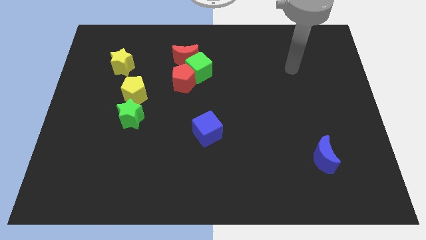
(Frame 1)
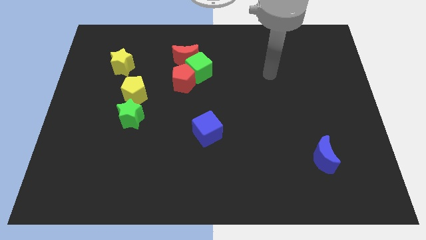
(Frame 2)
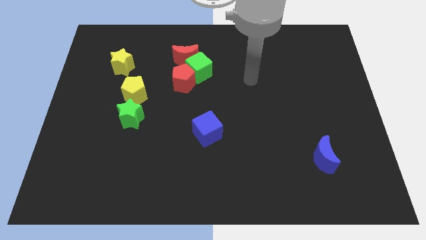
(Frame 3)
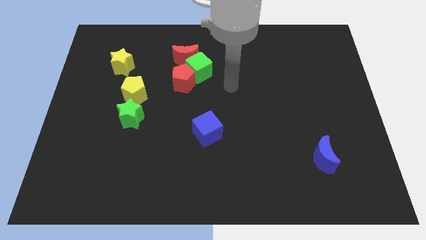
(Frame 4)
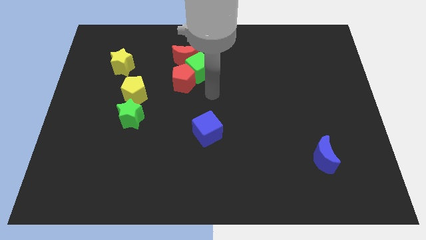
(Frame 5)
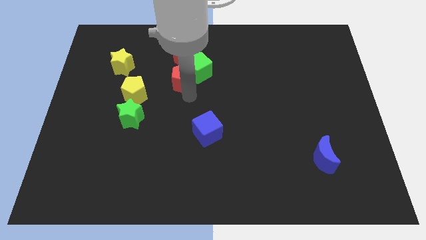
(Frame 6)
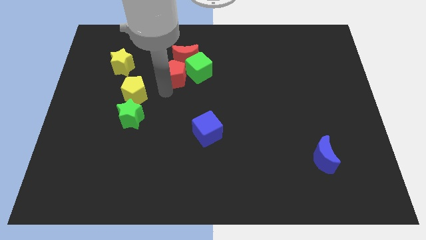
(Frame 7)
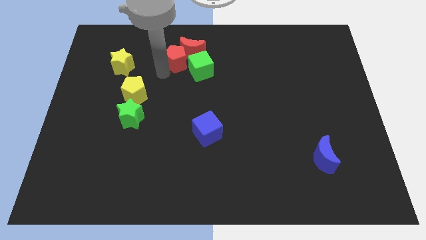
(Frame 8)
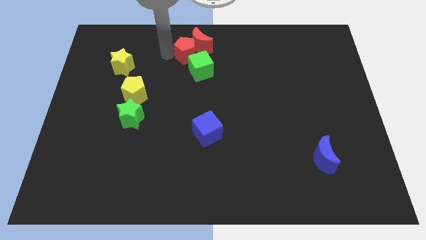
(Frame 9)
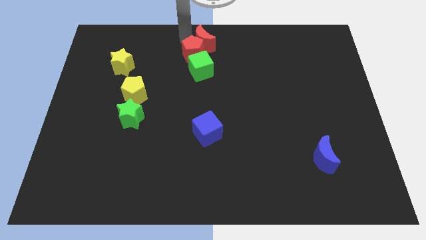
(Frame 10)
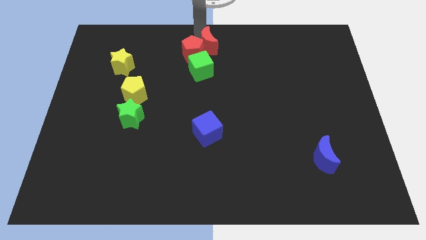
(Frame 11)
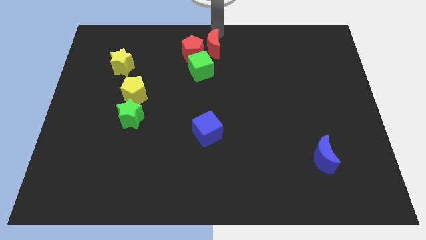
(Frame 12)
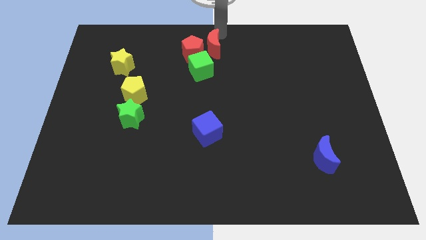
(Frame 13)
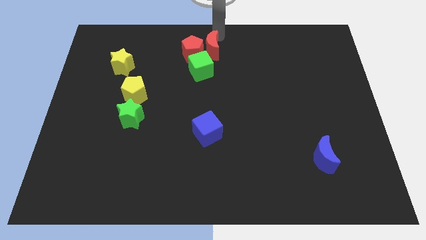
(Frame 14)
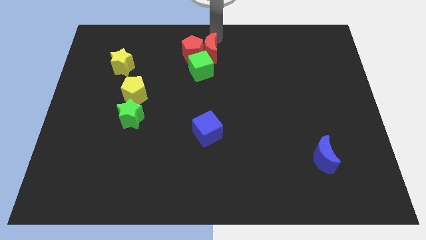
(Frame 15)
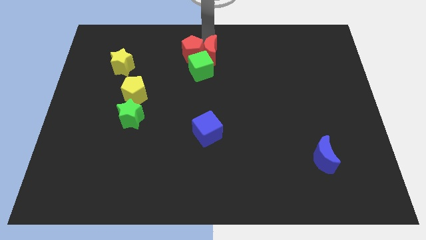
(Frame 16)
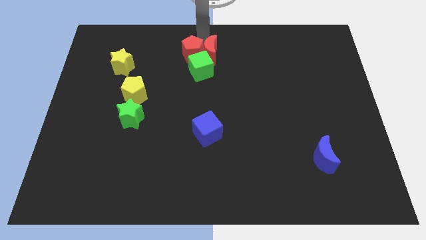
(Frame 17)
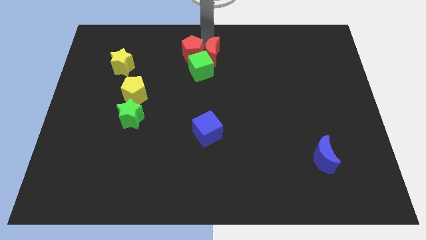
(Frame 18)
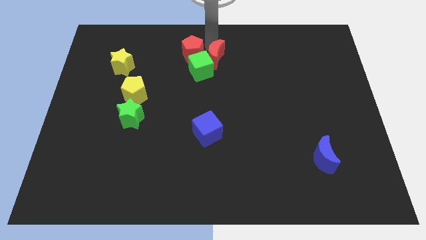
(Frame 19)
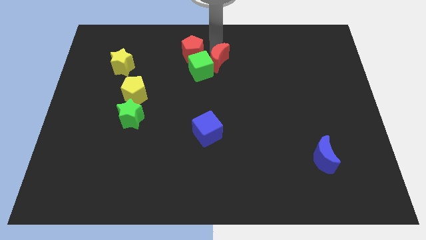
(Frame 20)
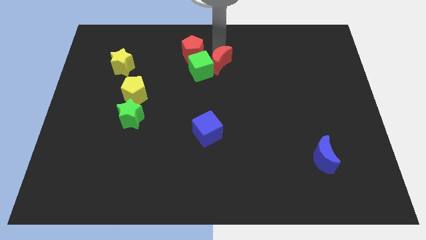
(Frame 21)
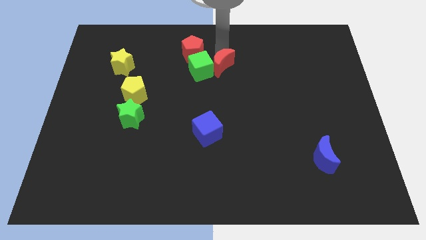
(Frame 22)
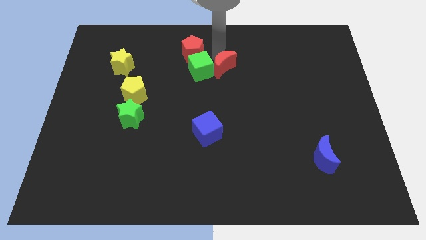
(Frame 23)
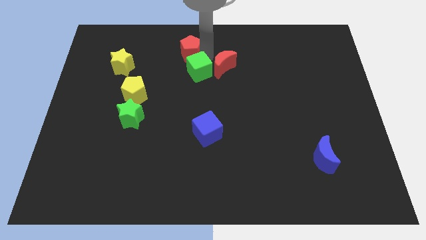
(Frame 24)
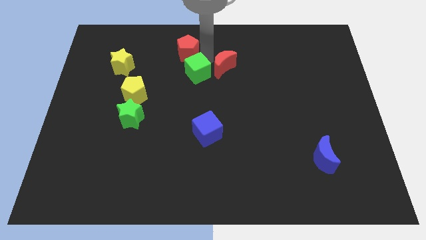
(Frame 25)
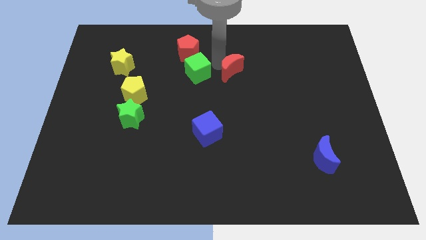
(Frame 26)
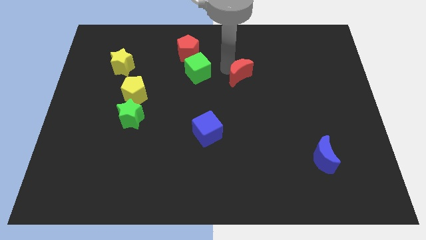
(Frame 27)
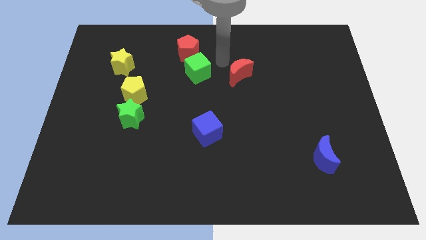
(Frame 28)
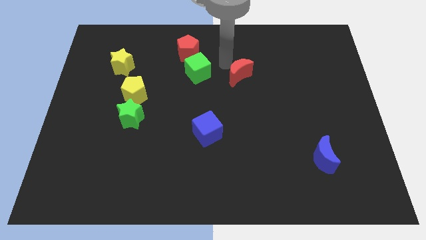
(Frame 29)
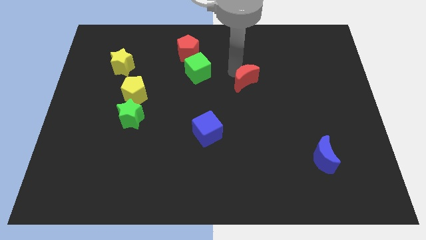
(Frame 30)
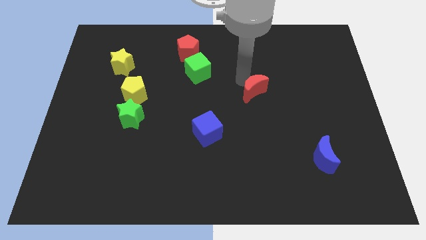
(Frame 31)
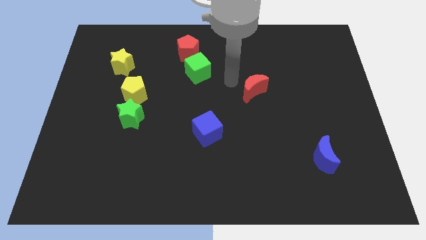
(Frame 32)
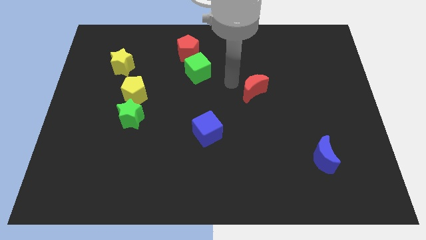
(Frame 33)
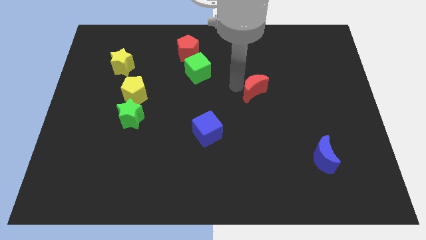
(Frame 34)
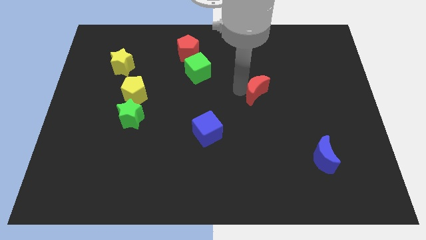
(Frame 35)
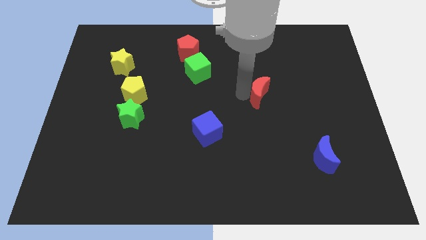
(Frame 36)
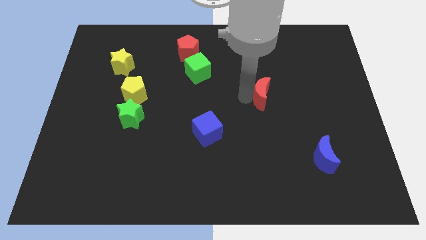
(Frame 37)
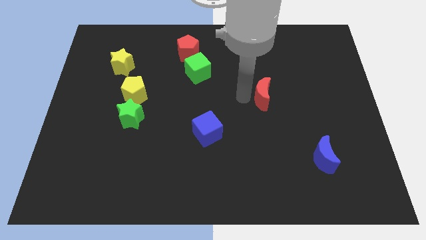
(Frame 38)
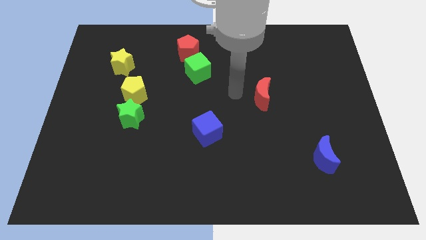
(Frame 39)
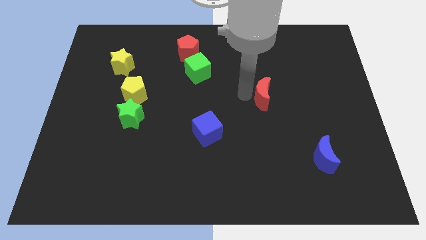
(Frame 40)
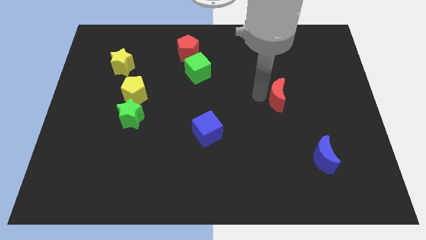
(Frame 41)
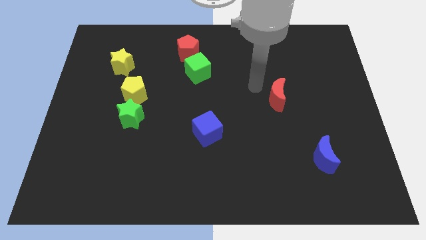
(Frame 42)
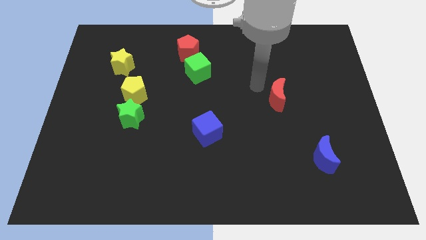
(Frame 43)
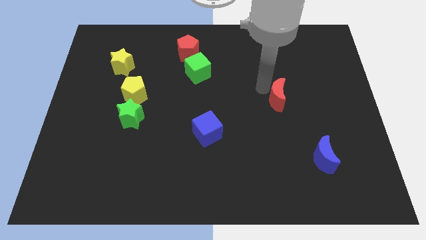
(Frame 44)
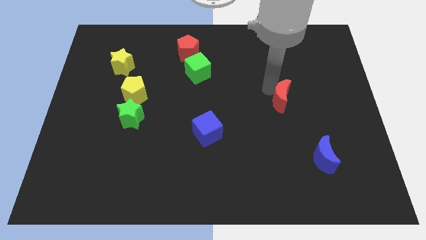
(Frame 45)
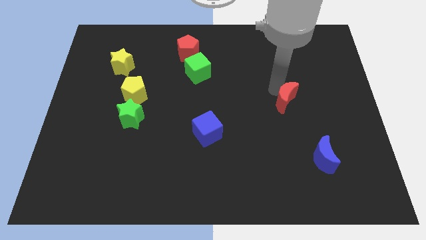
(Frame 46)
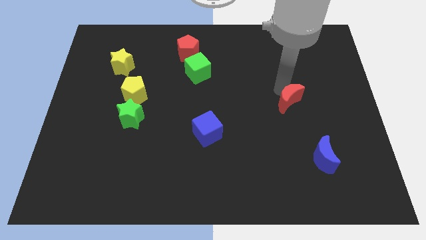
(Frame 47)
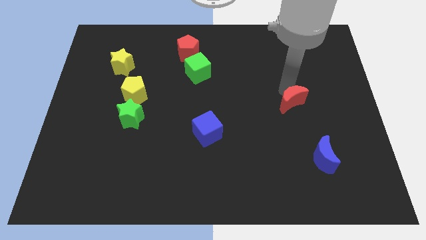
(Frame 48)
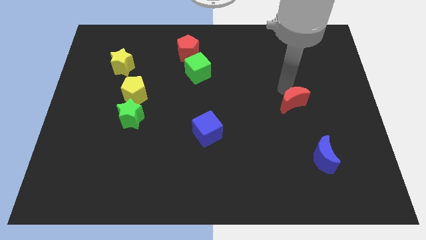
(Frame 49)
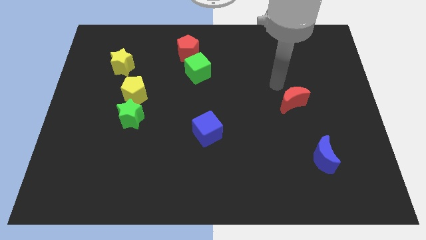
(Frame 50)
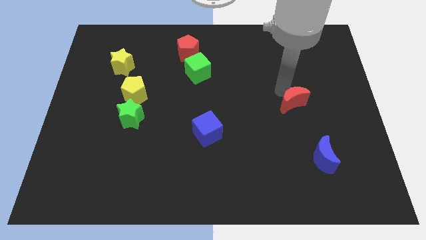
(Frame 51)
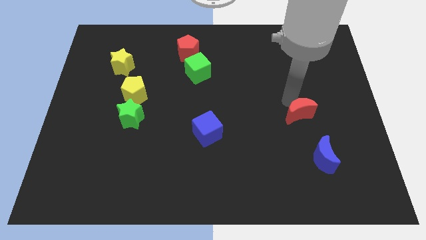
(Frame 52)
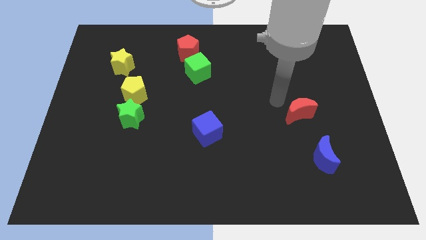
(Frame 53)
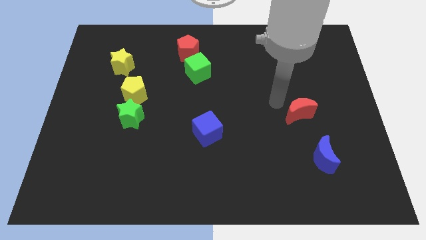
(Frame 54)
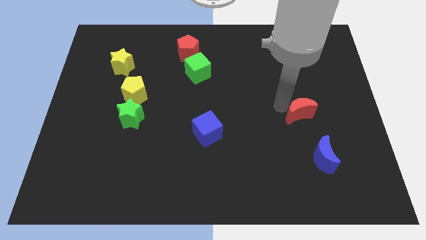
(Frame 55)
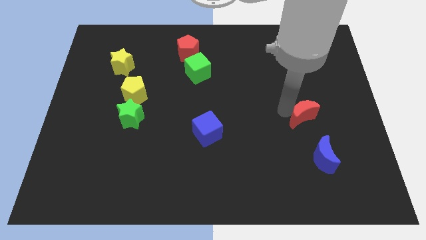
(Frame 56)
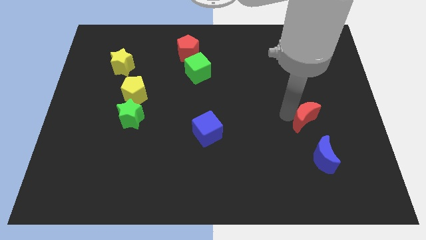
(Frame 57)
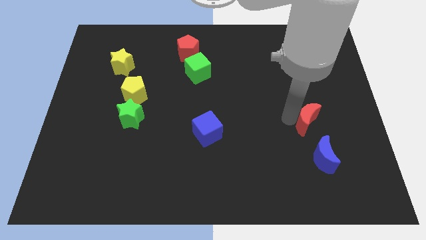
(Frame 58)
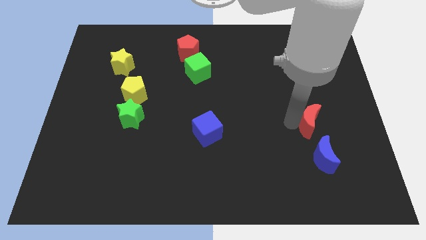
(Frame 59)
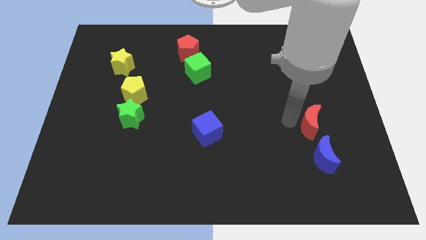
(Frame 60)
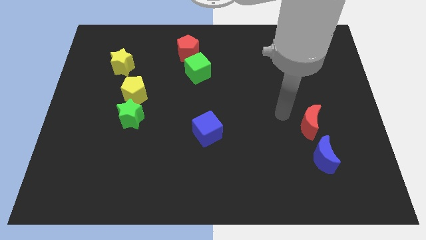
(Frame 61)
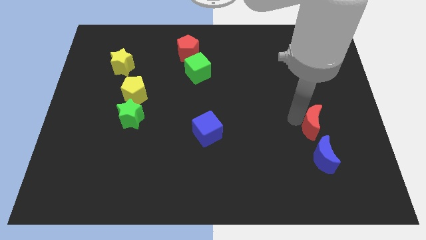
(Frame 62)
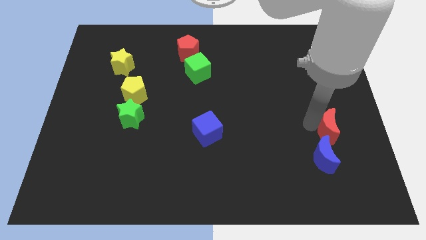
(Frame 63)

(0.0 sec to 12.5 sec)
slide the red moon diagonally up and to the right of the blue moon

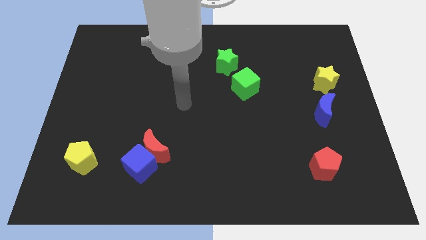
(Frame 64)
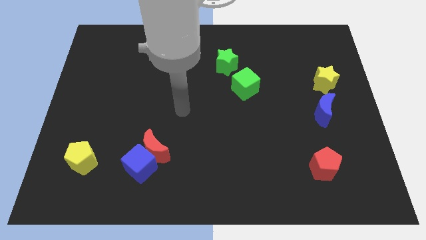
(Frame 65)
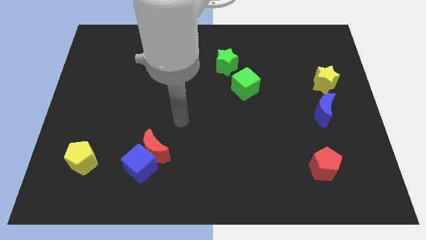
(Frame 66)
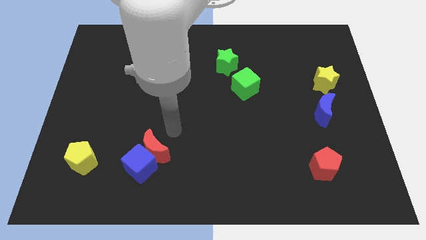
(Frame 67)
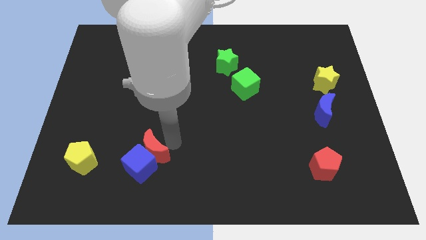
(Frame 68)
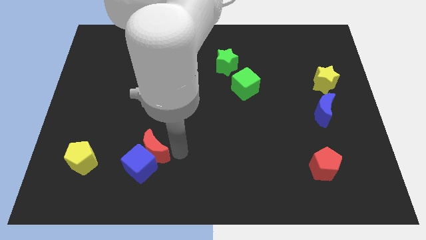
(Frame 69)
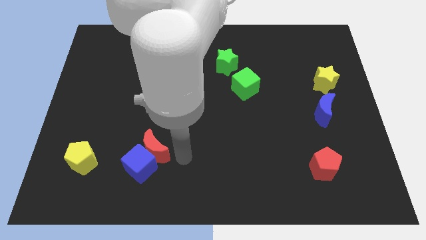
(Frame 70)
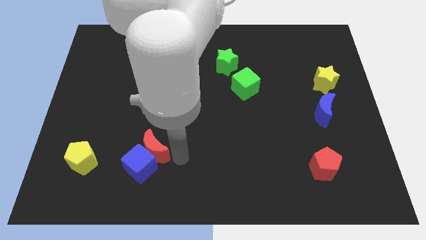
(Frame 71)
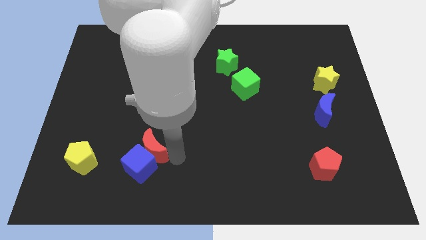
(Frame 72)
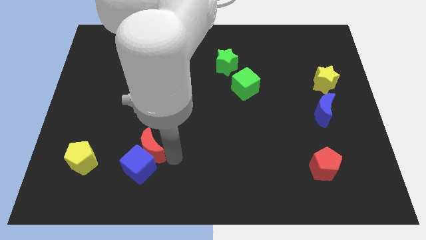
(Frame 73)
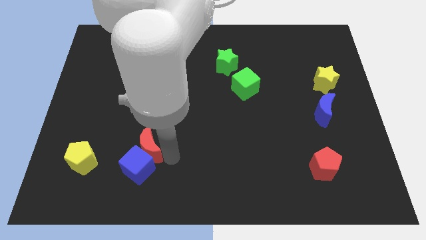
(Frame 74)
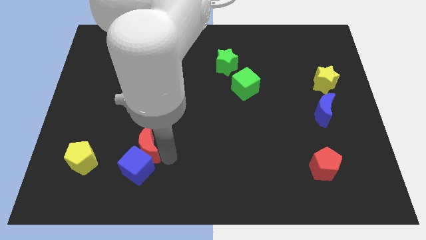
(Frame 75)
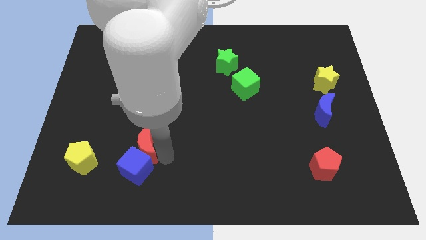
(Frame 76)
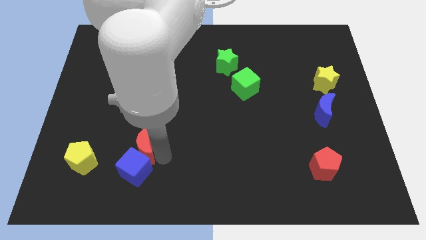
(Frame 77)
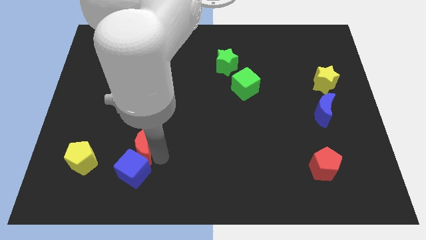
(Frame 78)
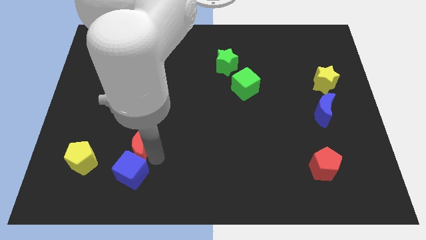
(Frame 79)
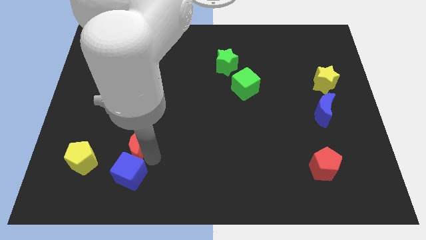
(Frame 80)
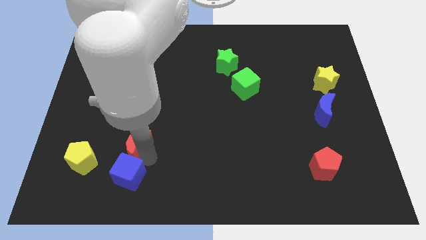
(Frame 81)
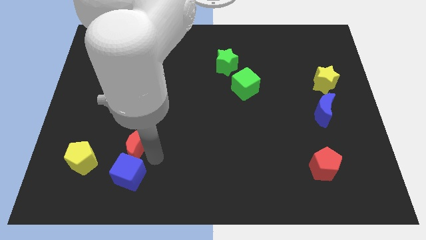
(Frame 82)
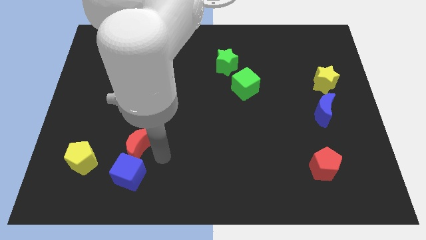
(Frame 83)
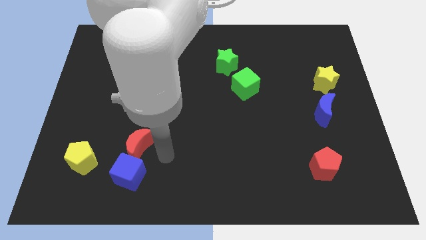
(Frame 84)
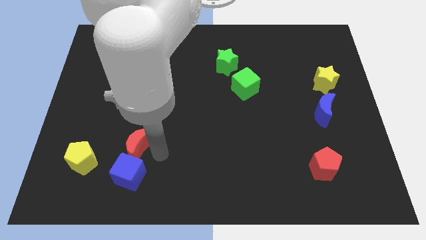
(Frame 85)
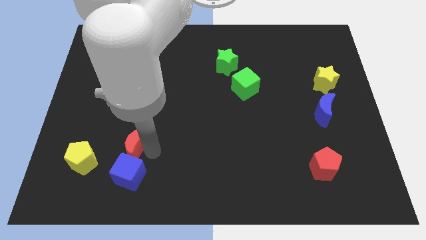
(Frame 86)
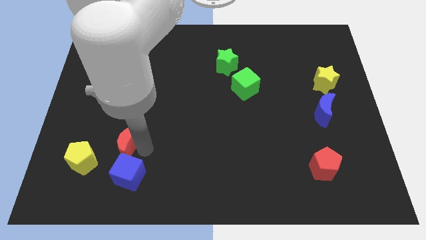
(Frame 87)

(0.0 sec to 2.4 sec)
push the red moon to the top right side of the yellow pentagon
